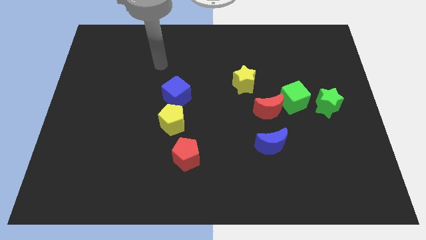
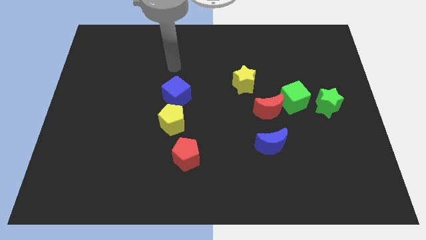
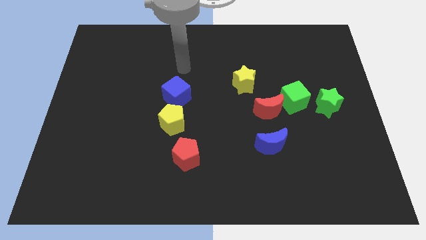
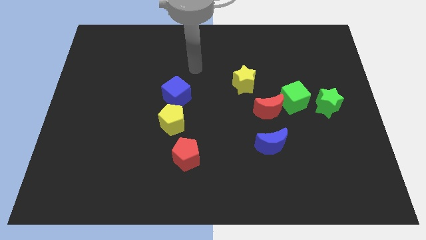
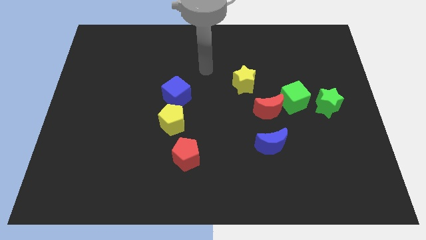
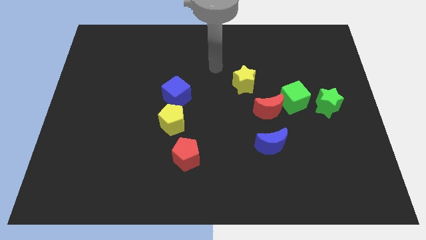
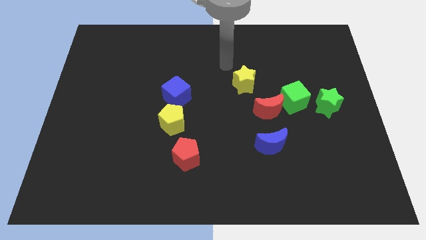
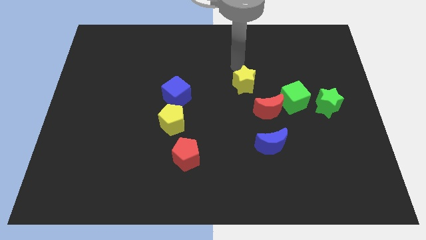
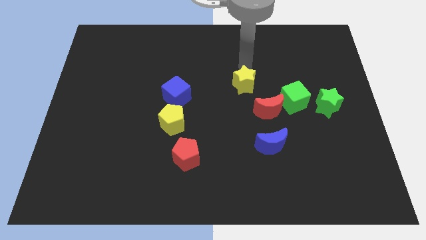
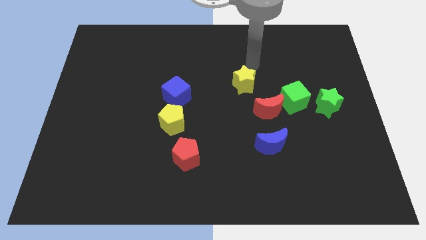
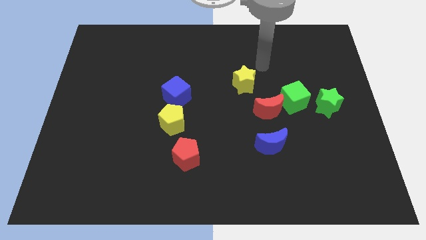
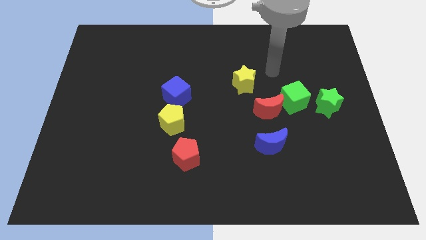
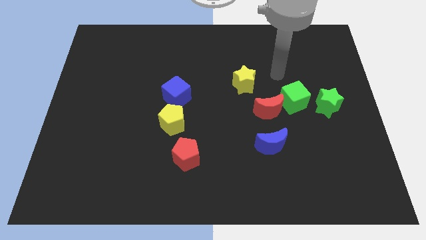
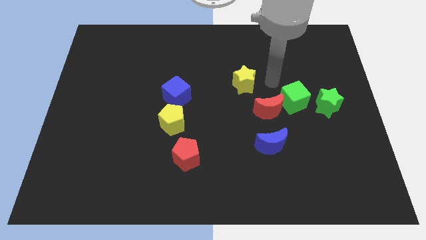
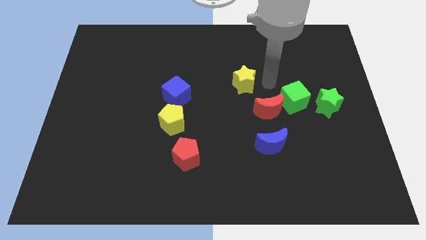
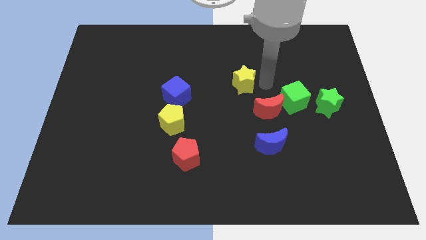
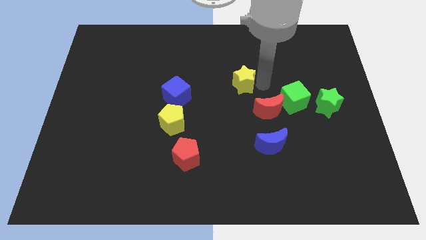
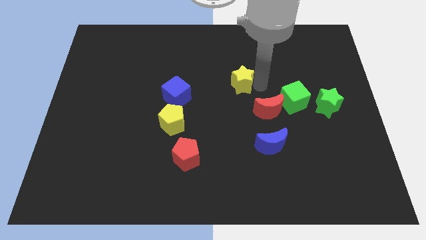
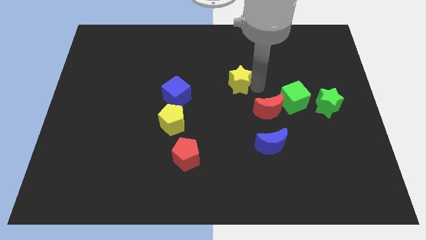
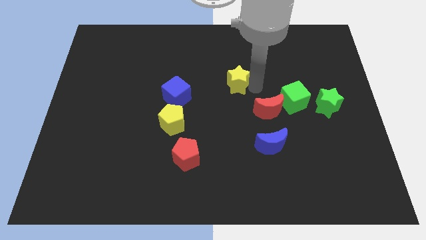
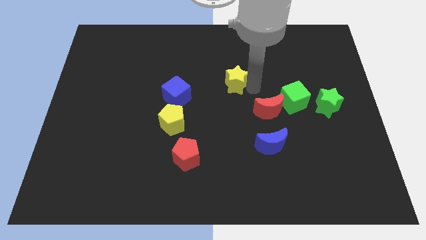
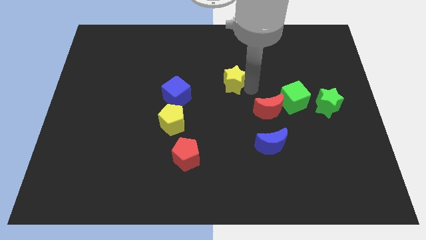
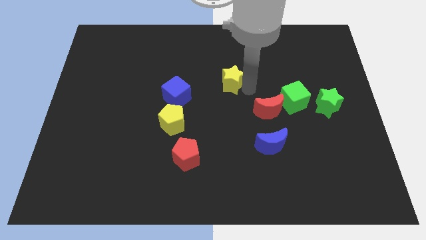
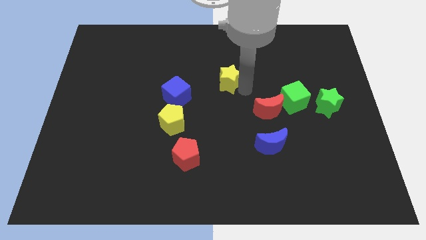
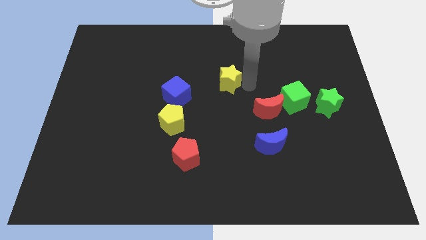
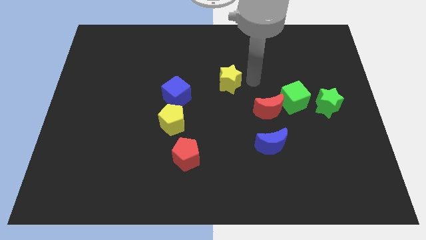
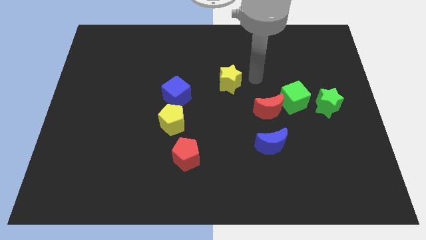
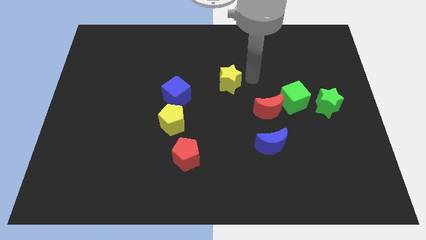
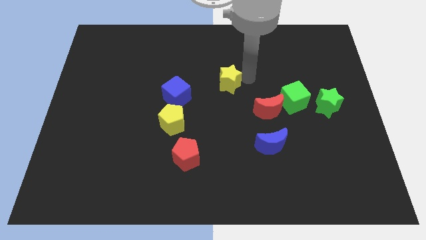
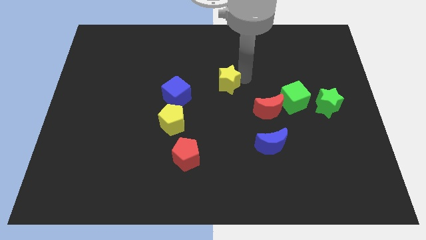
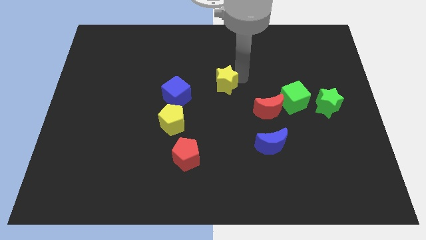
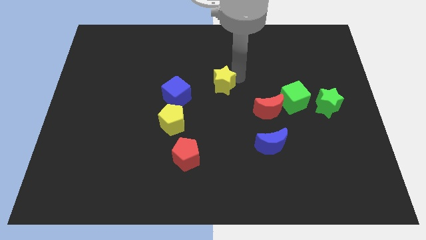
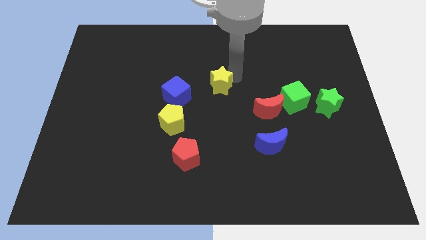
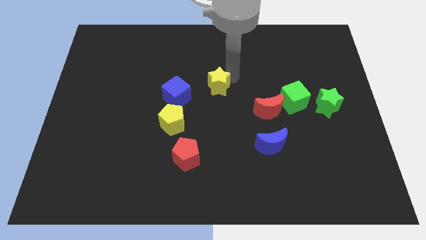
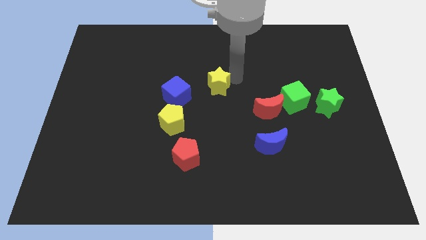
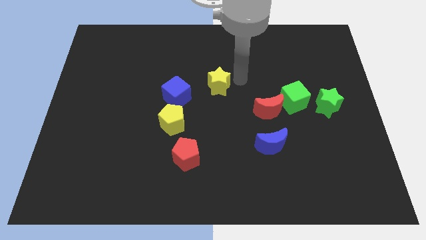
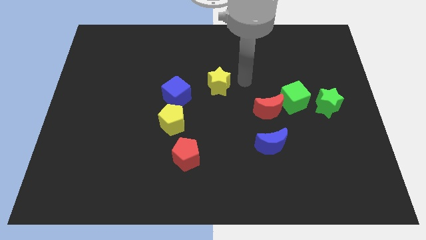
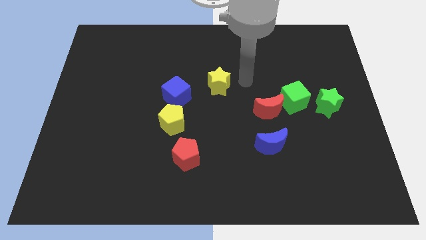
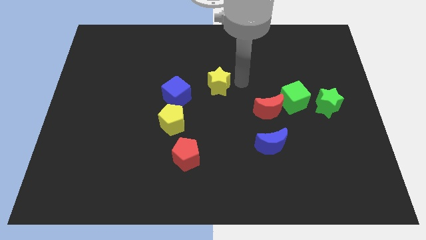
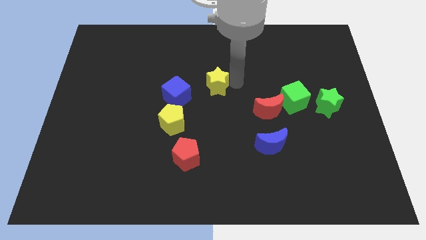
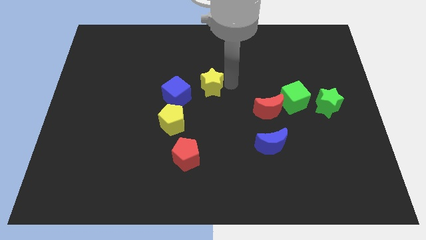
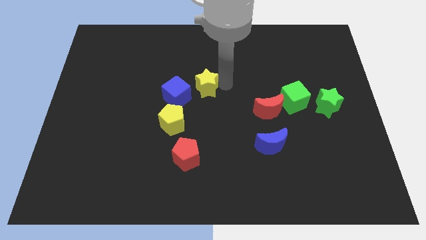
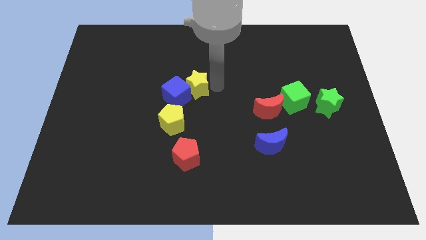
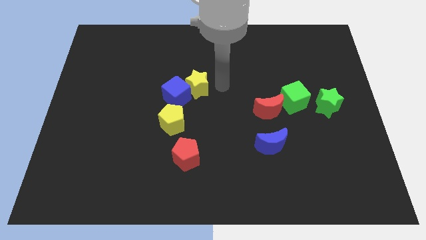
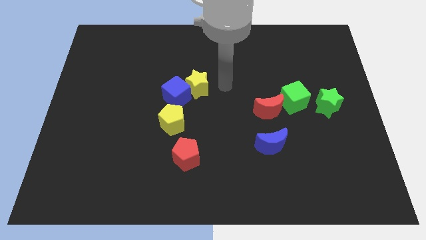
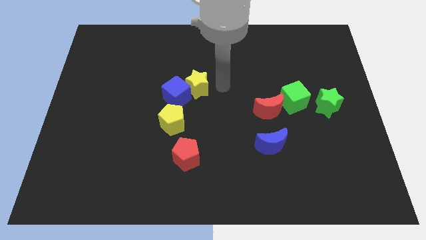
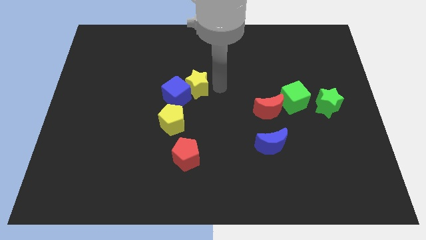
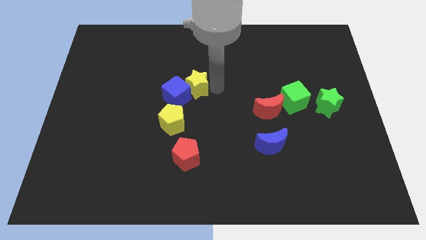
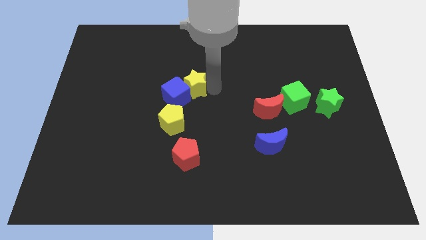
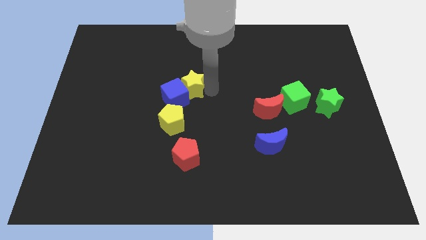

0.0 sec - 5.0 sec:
put the yellow star above the yellow pentagon

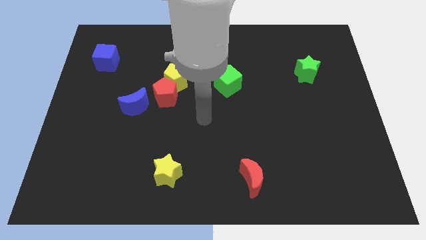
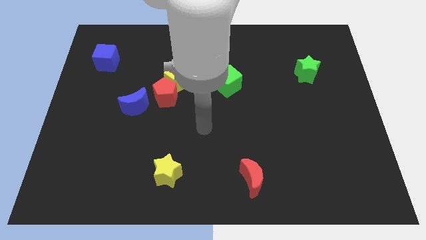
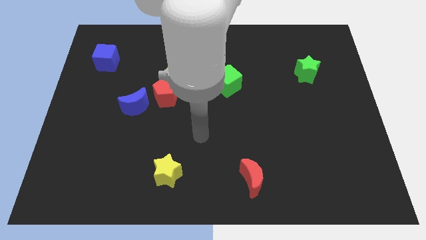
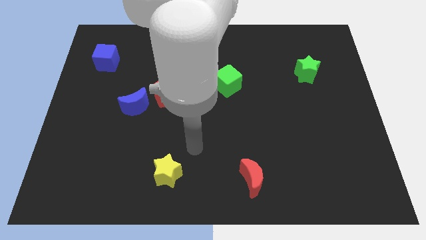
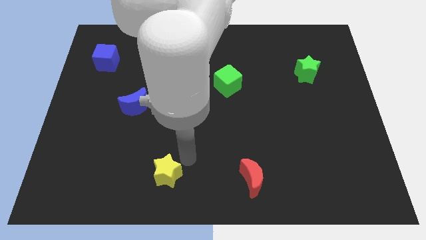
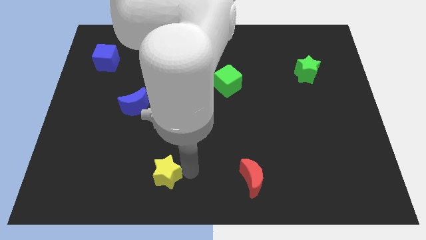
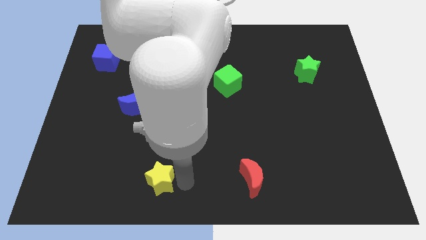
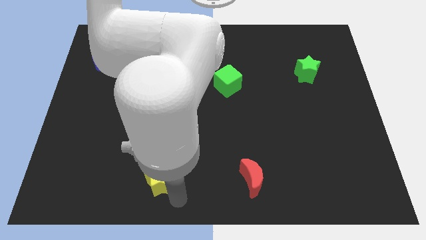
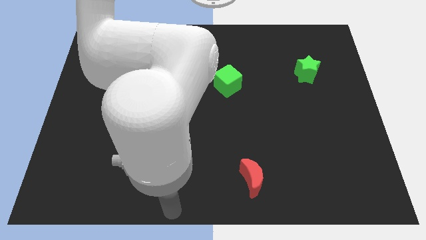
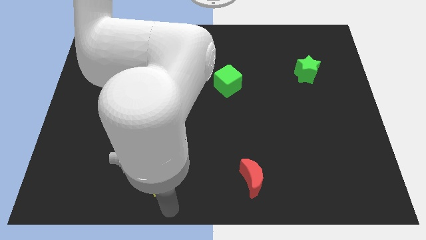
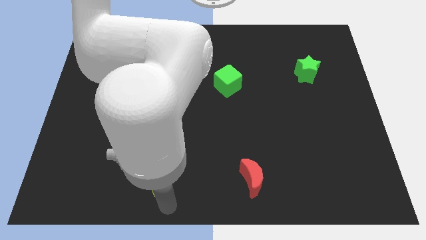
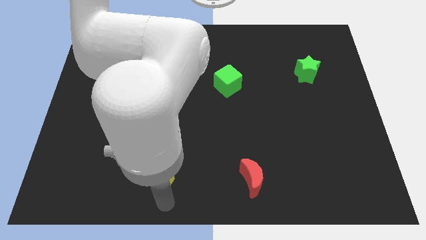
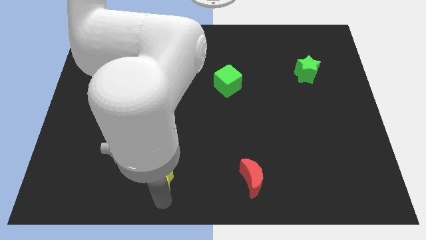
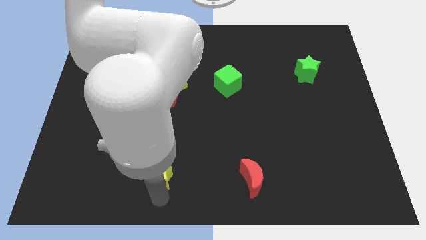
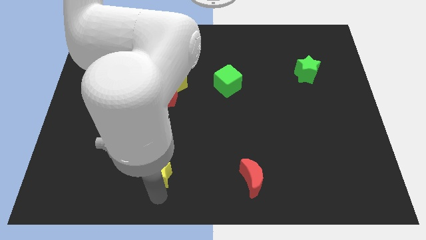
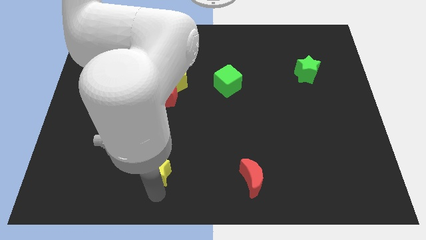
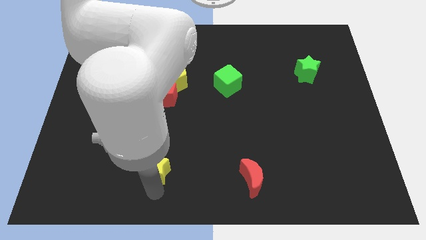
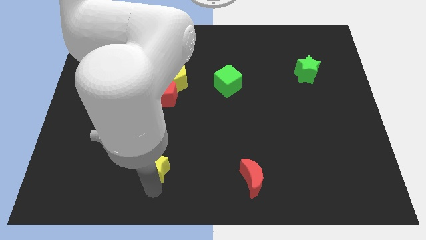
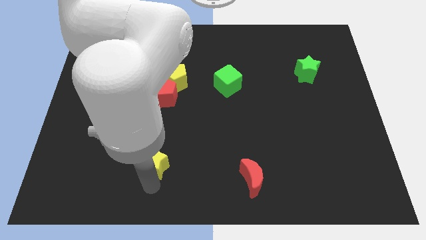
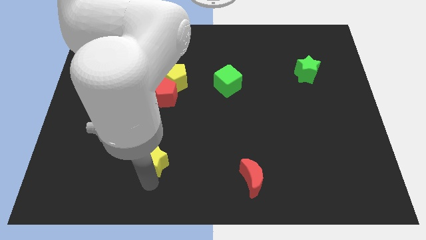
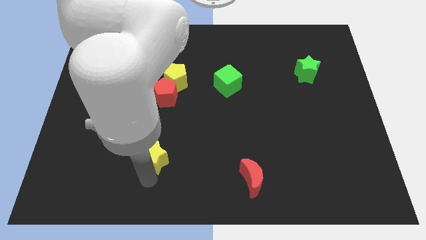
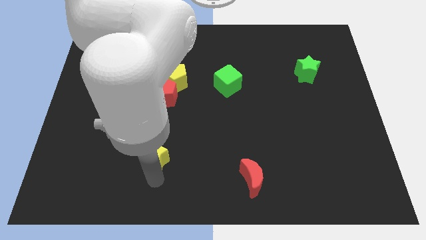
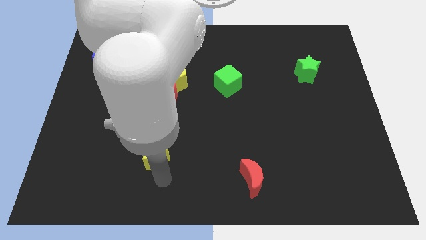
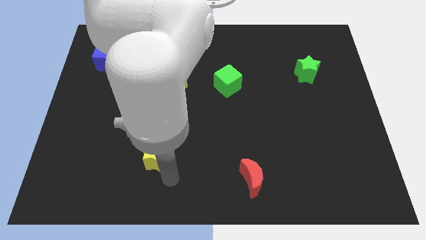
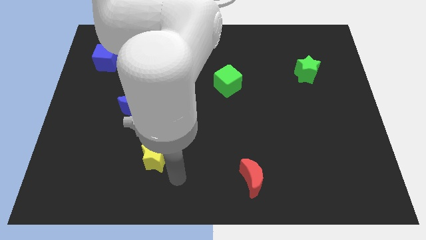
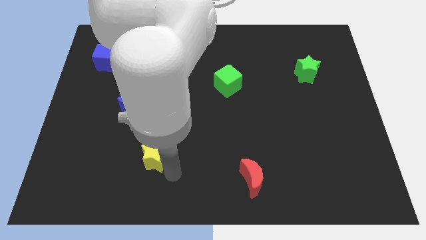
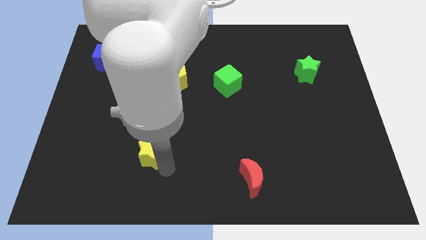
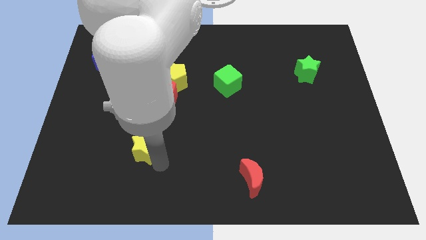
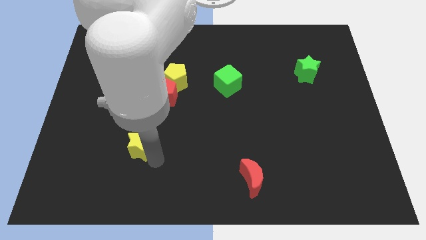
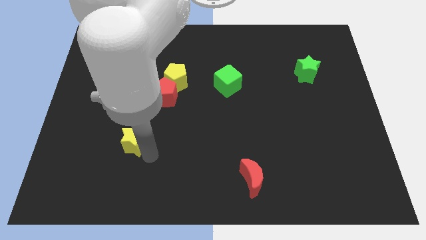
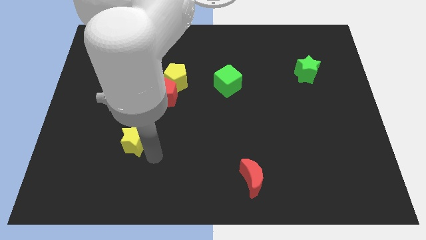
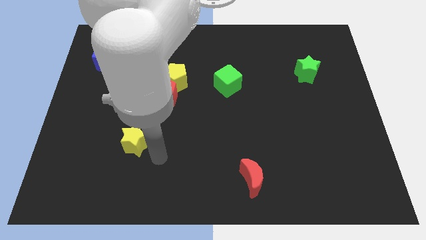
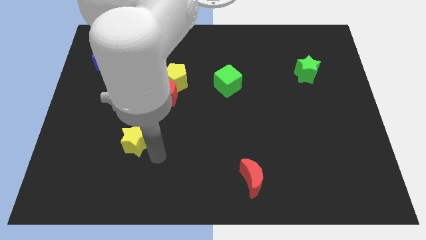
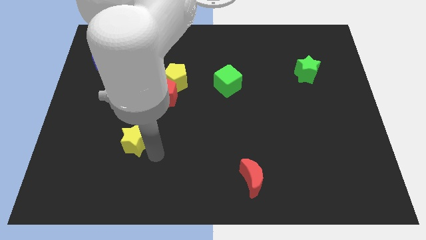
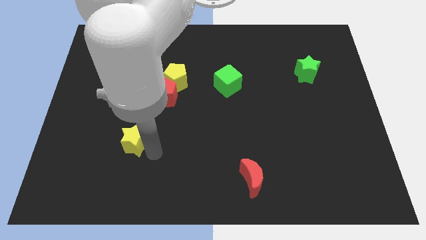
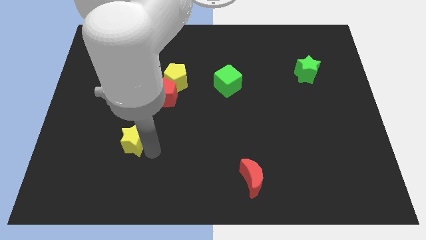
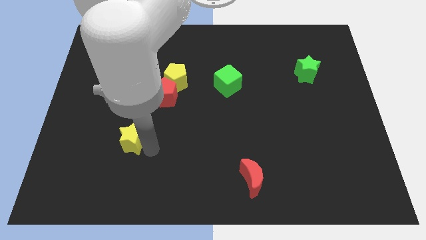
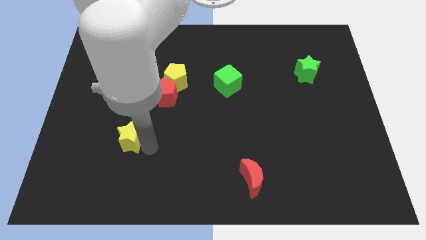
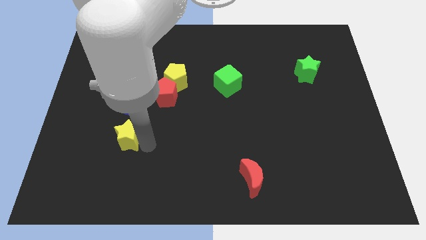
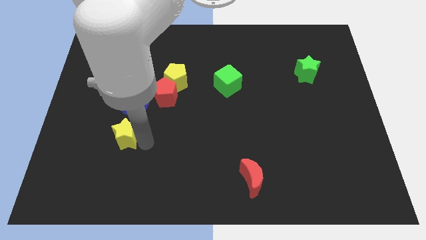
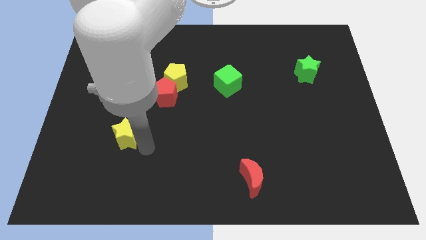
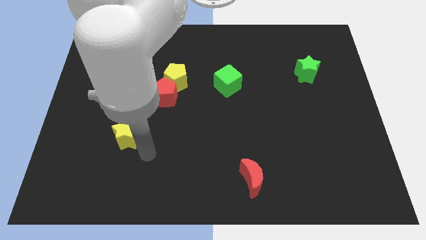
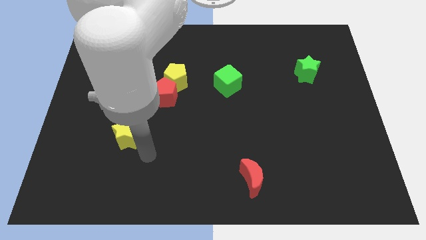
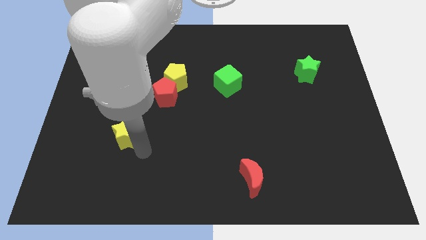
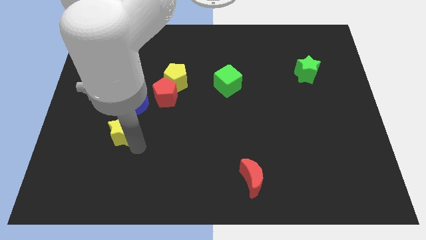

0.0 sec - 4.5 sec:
slide the yellow star diagonally down and to the left of the blue moon
